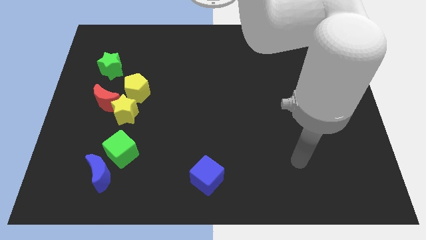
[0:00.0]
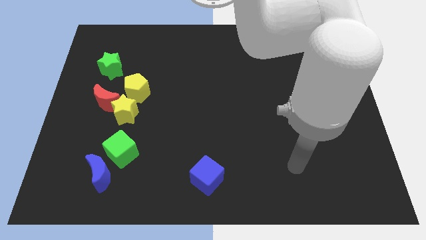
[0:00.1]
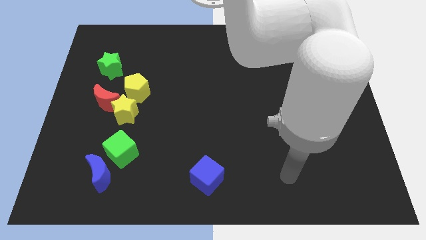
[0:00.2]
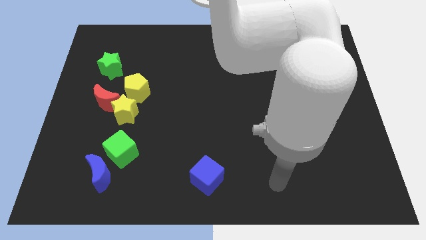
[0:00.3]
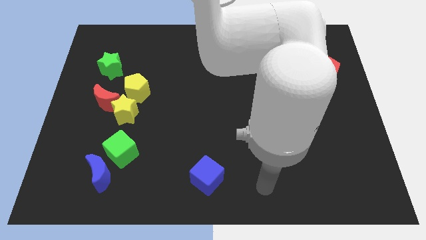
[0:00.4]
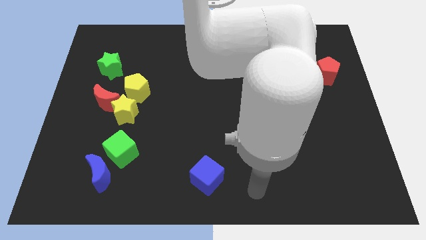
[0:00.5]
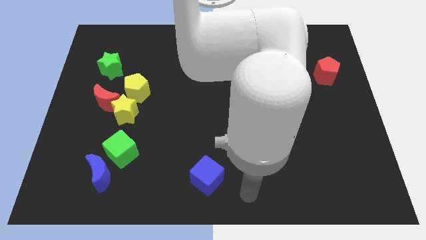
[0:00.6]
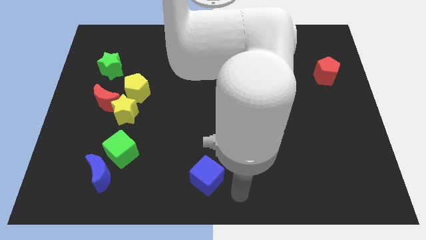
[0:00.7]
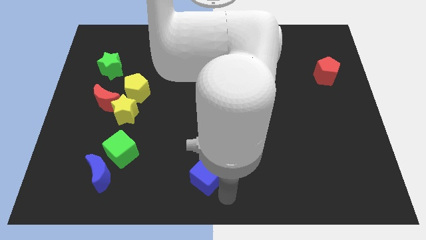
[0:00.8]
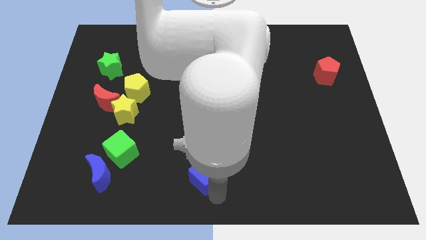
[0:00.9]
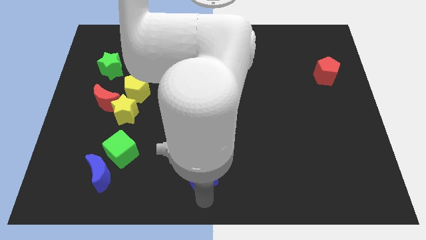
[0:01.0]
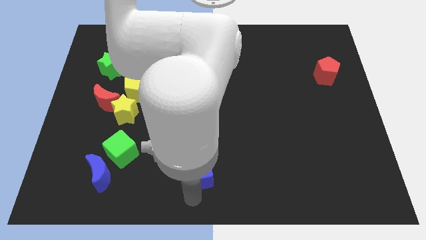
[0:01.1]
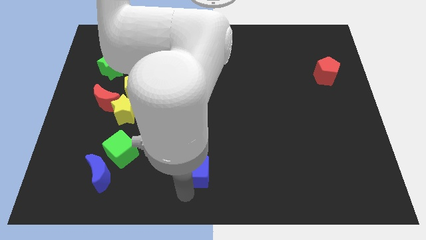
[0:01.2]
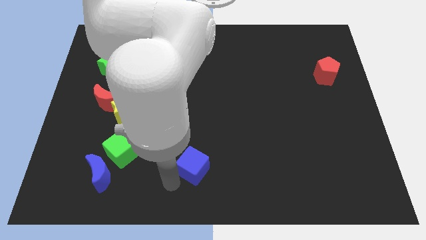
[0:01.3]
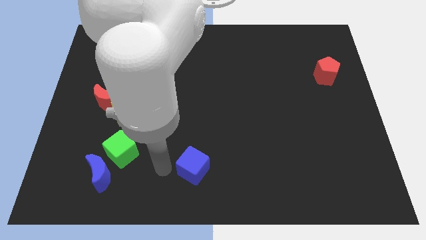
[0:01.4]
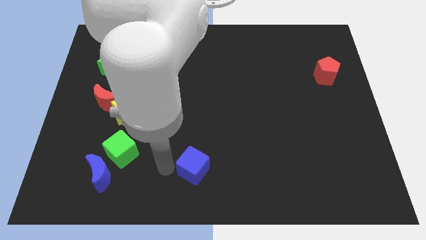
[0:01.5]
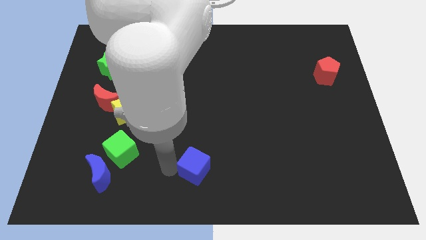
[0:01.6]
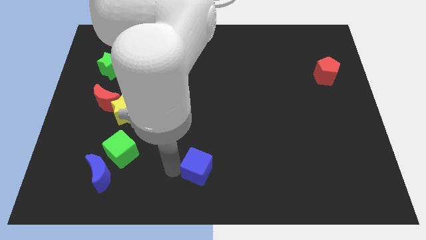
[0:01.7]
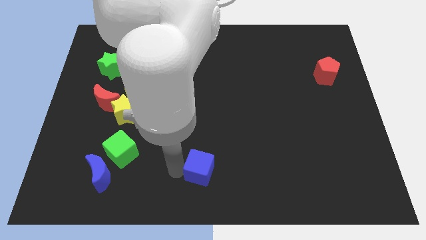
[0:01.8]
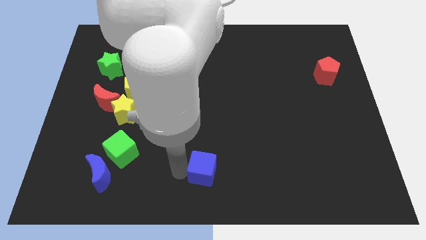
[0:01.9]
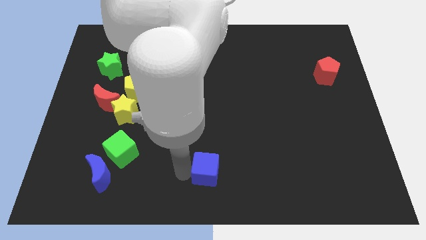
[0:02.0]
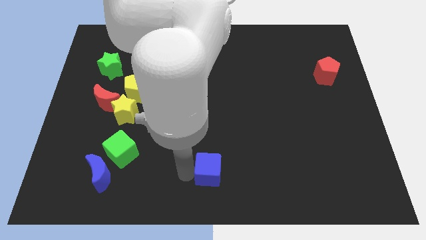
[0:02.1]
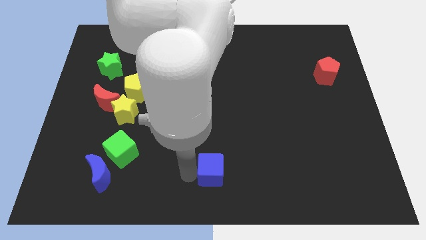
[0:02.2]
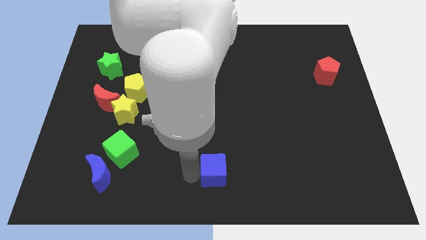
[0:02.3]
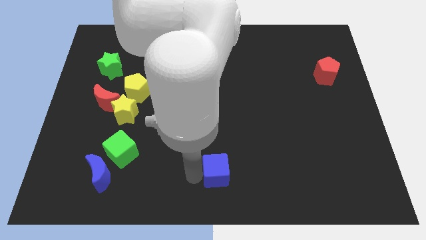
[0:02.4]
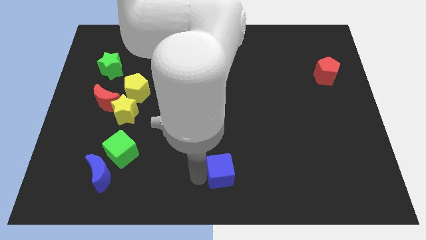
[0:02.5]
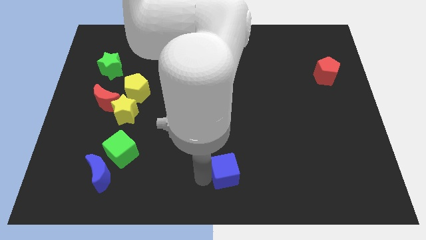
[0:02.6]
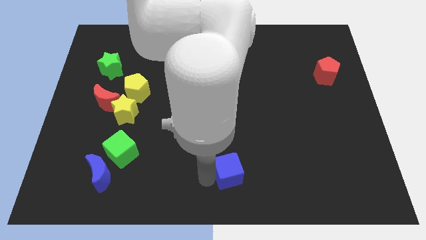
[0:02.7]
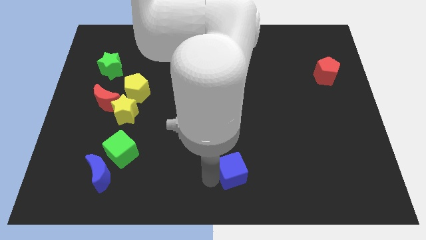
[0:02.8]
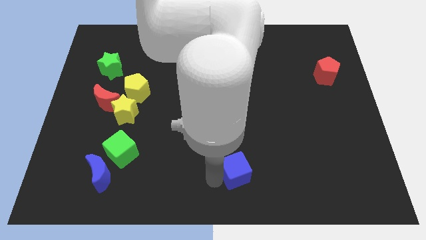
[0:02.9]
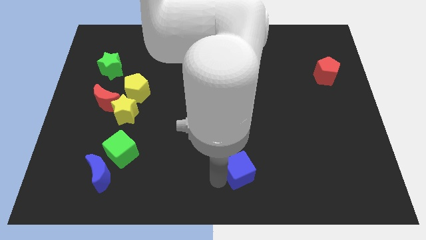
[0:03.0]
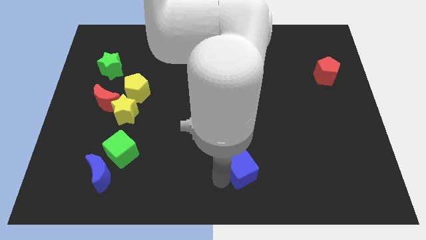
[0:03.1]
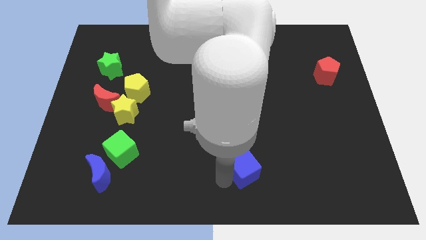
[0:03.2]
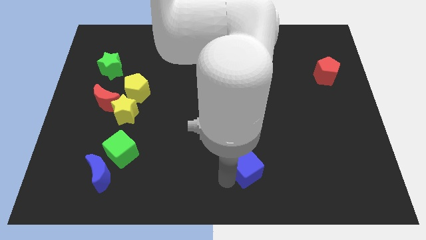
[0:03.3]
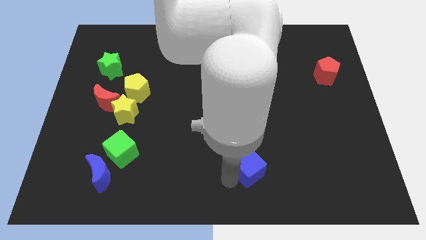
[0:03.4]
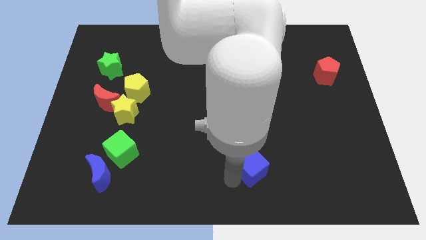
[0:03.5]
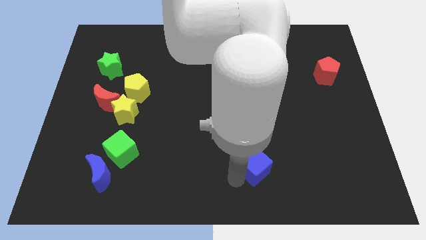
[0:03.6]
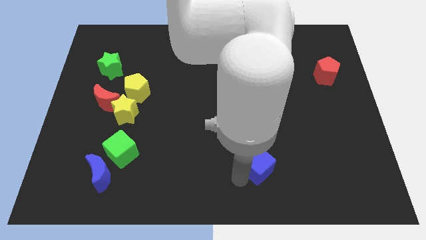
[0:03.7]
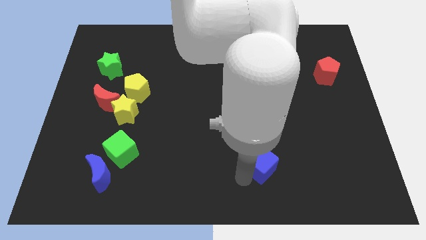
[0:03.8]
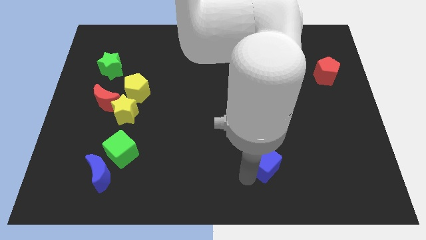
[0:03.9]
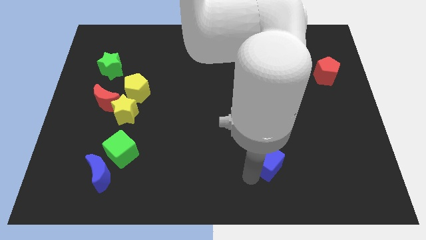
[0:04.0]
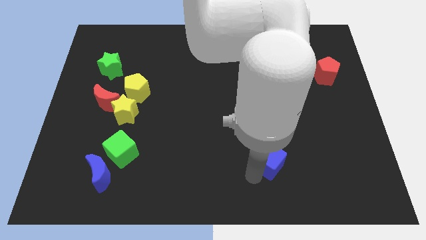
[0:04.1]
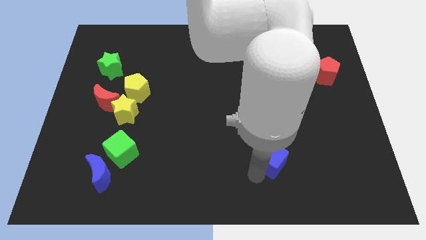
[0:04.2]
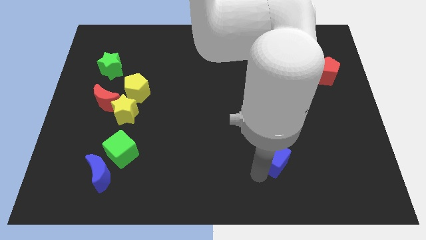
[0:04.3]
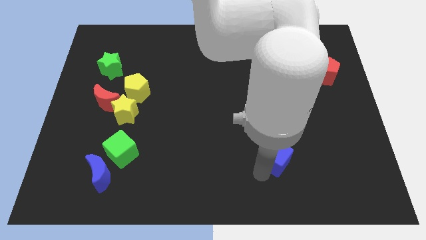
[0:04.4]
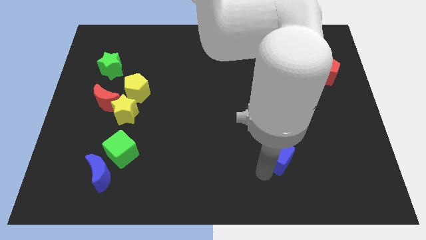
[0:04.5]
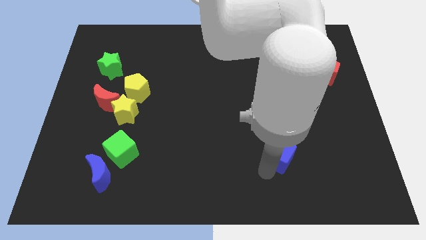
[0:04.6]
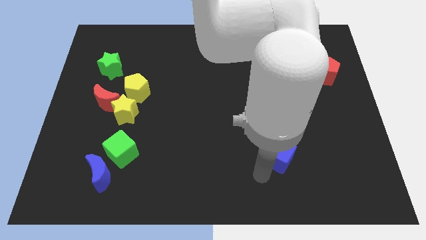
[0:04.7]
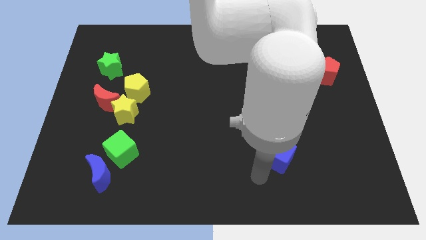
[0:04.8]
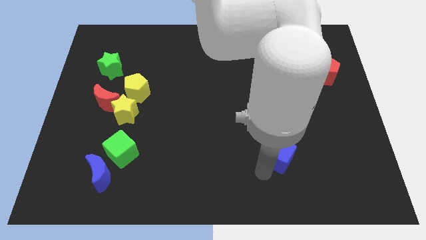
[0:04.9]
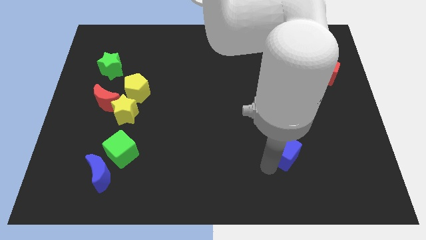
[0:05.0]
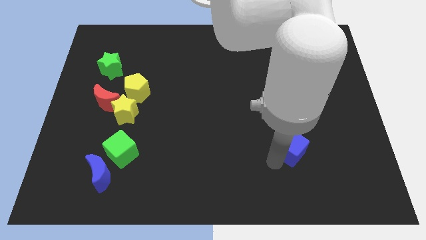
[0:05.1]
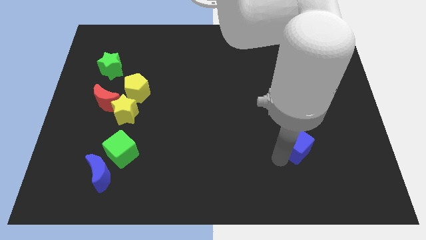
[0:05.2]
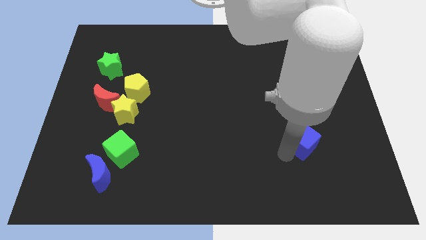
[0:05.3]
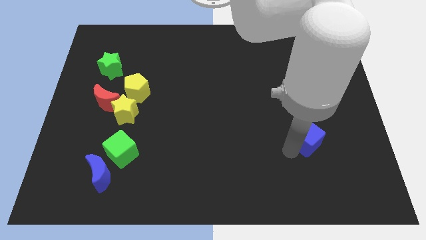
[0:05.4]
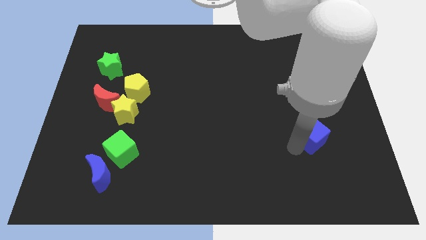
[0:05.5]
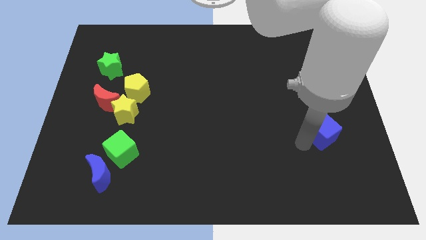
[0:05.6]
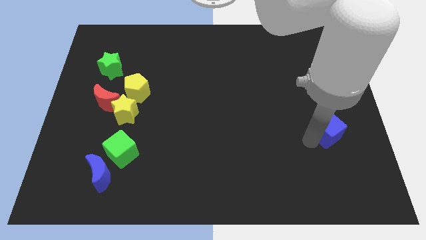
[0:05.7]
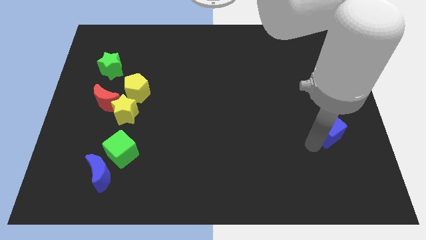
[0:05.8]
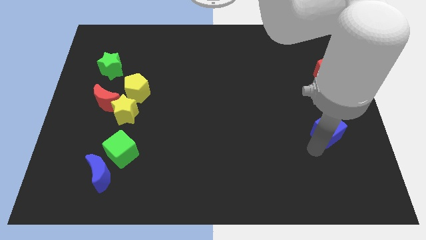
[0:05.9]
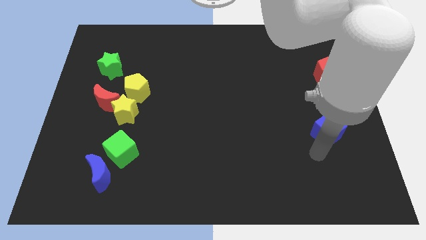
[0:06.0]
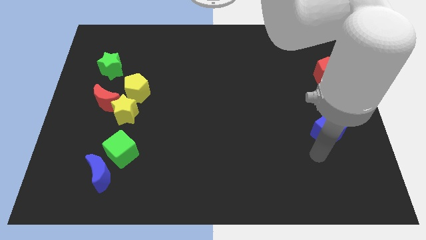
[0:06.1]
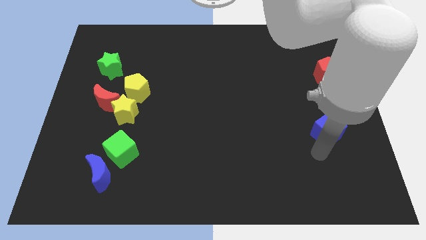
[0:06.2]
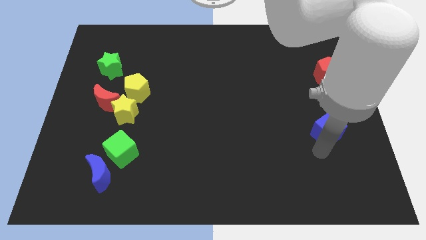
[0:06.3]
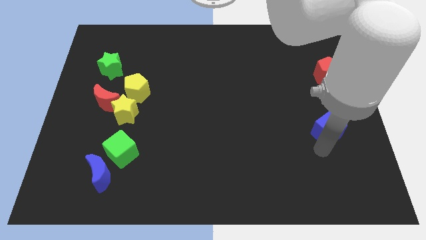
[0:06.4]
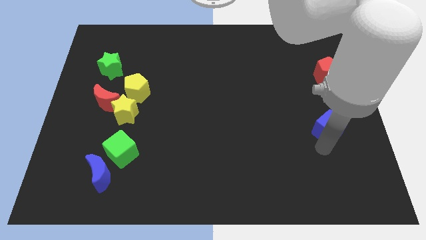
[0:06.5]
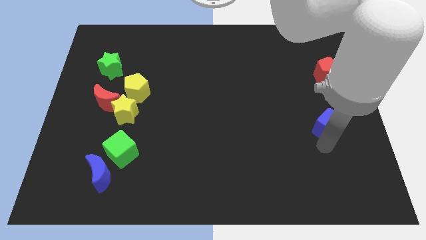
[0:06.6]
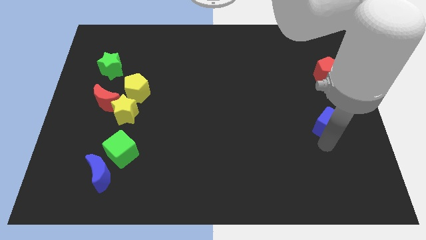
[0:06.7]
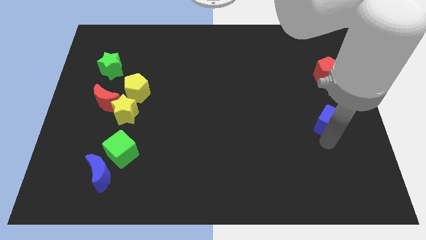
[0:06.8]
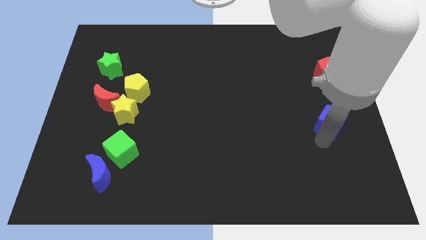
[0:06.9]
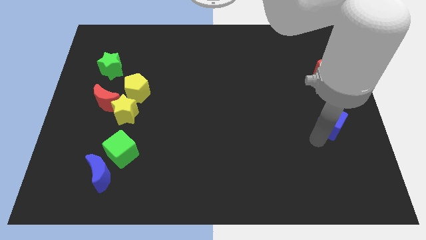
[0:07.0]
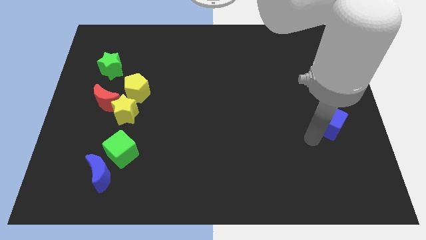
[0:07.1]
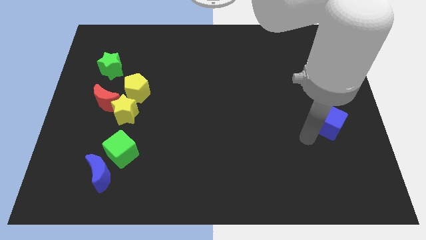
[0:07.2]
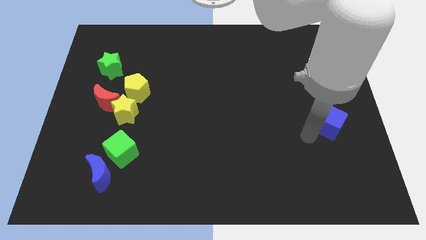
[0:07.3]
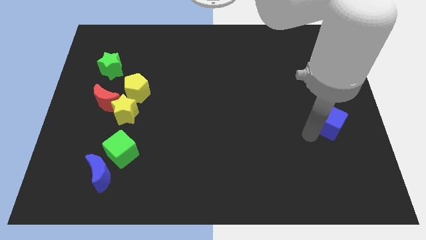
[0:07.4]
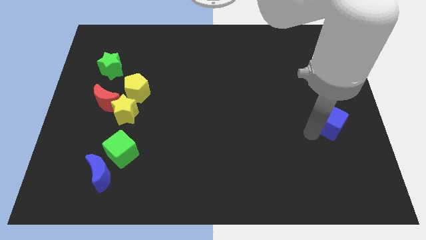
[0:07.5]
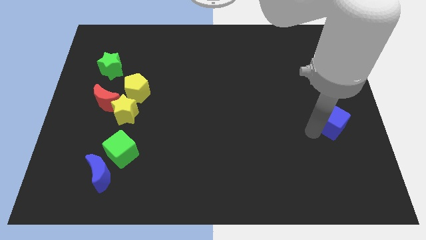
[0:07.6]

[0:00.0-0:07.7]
push the blue cube to the center right
